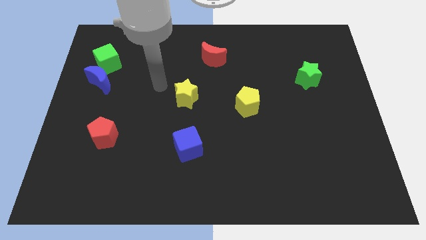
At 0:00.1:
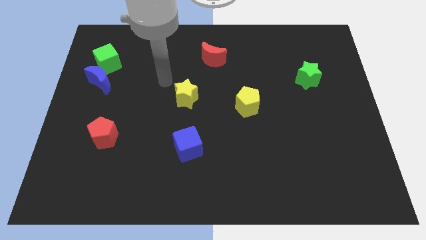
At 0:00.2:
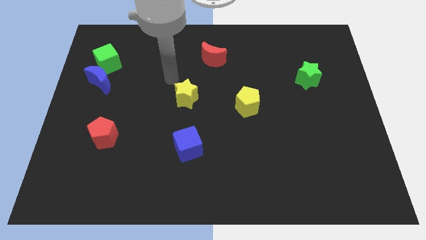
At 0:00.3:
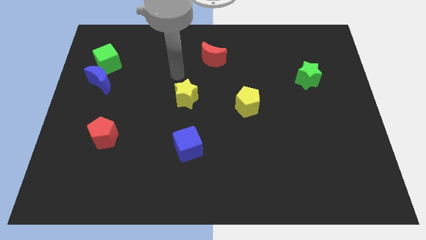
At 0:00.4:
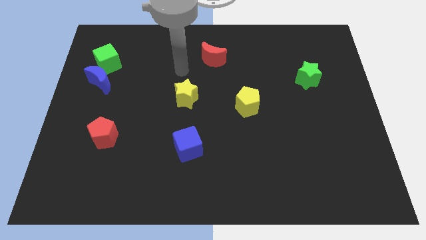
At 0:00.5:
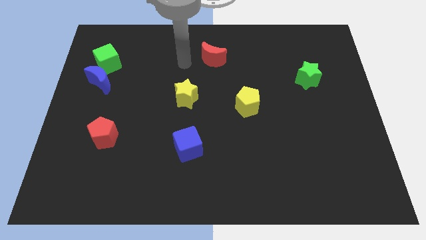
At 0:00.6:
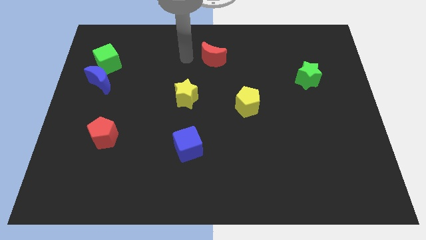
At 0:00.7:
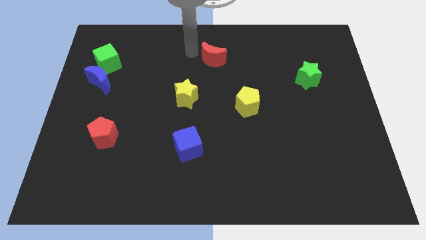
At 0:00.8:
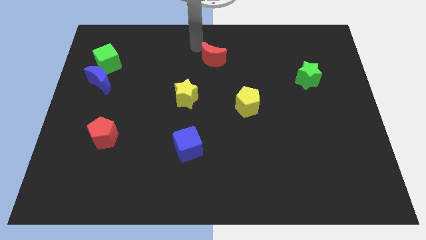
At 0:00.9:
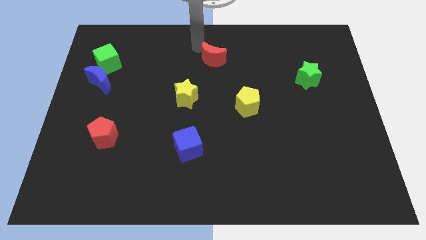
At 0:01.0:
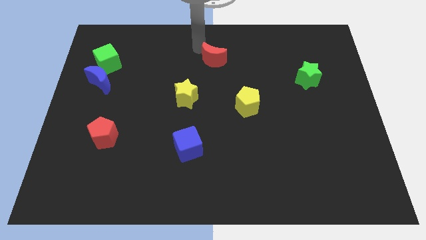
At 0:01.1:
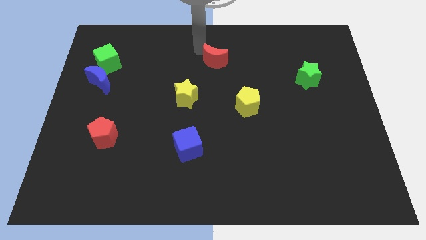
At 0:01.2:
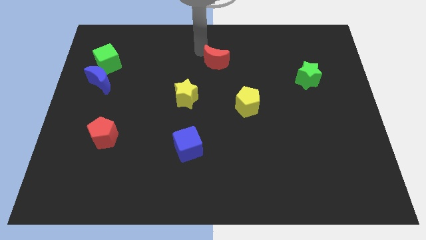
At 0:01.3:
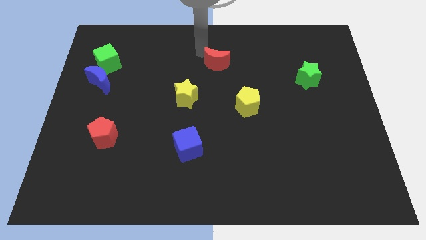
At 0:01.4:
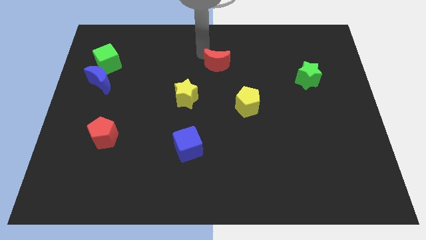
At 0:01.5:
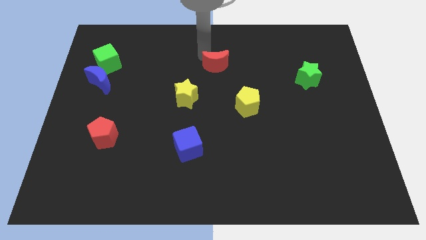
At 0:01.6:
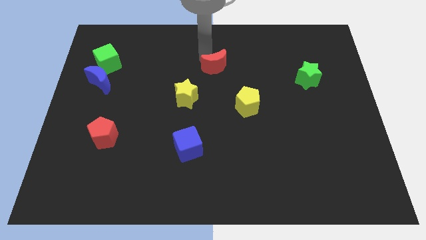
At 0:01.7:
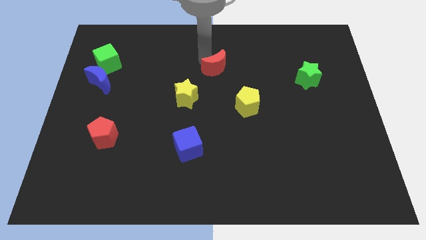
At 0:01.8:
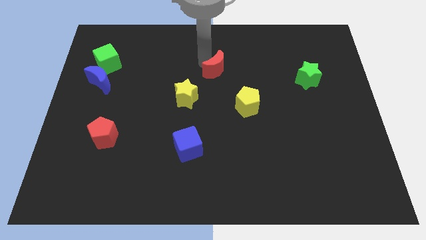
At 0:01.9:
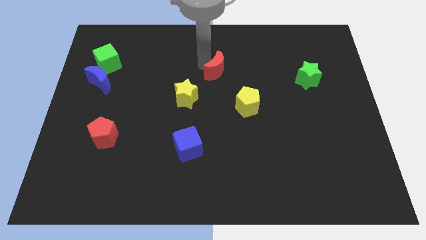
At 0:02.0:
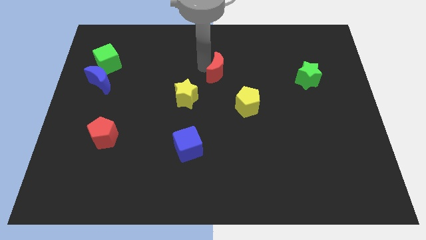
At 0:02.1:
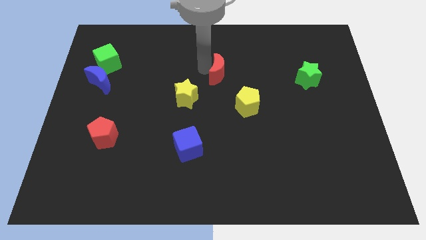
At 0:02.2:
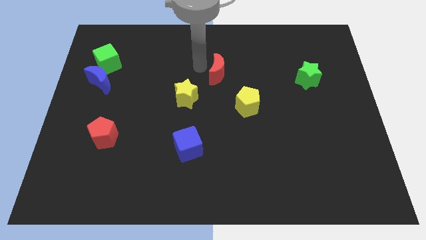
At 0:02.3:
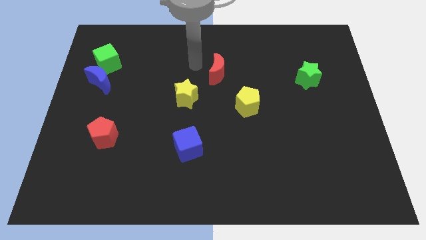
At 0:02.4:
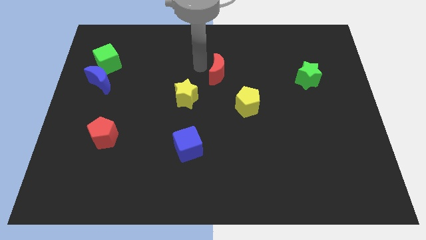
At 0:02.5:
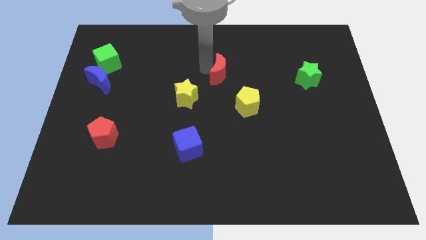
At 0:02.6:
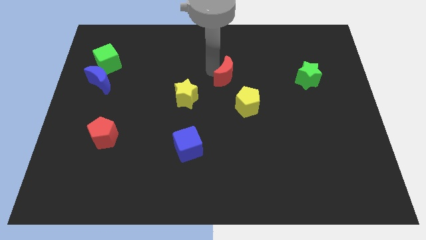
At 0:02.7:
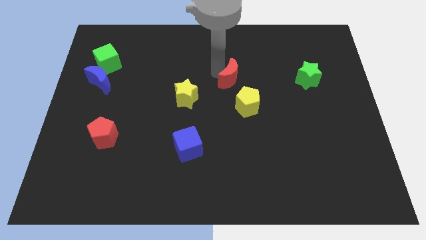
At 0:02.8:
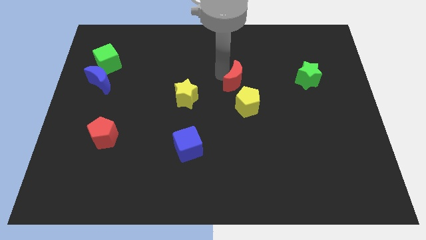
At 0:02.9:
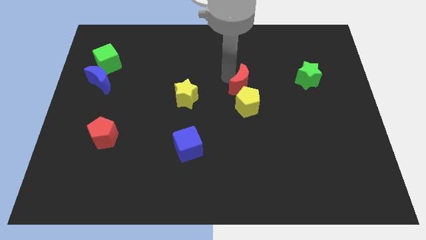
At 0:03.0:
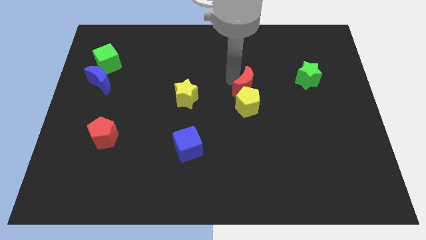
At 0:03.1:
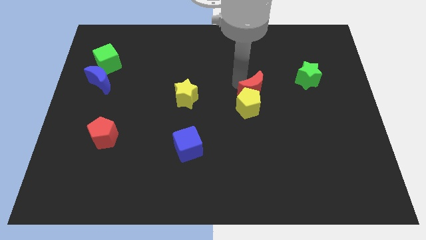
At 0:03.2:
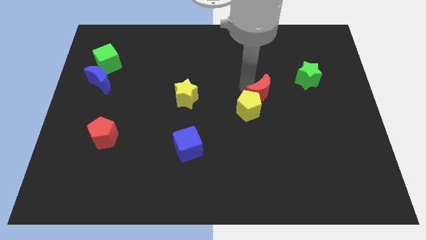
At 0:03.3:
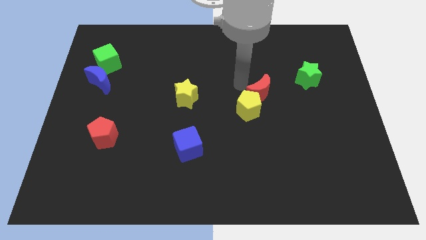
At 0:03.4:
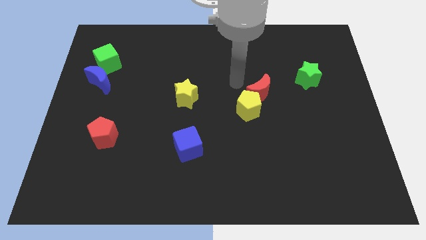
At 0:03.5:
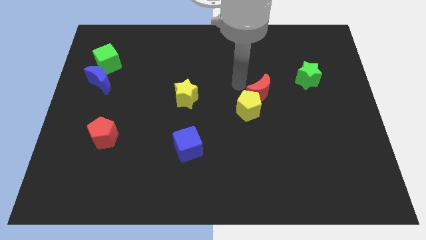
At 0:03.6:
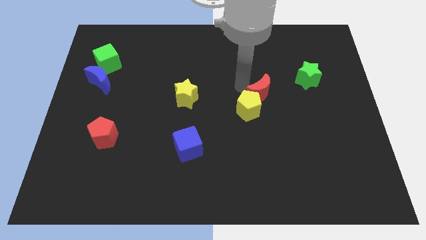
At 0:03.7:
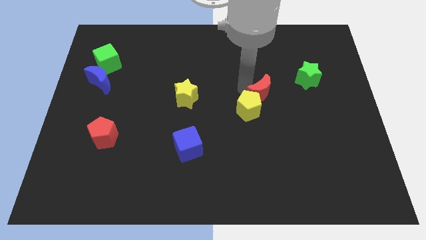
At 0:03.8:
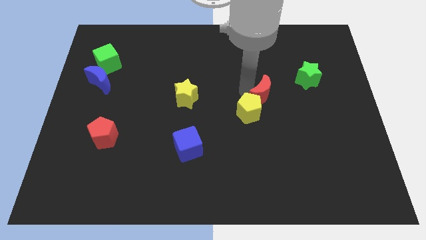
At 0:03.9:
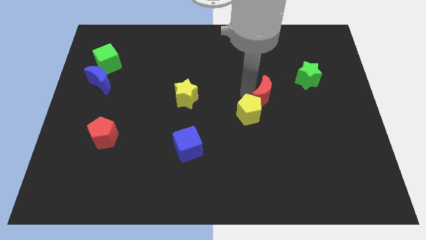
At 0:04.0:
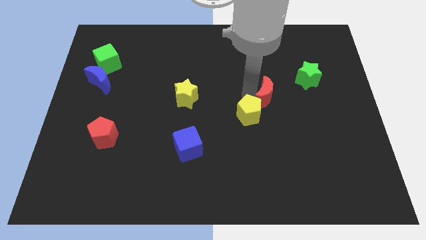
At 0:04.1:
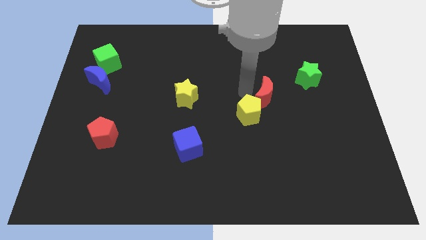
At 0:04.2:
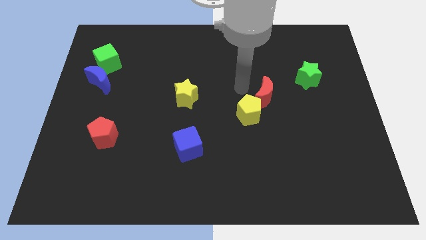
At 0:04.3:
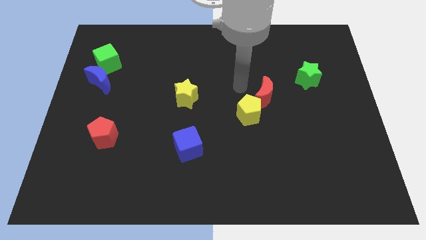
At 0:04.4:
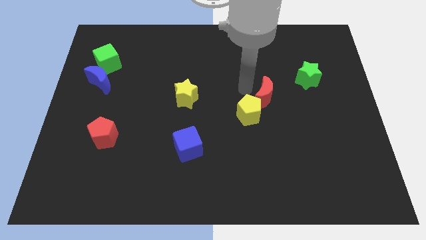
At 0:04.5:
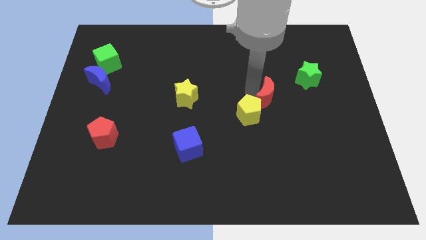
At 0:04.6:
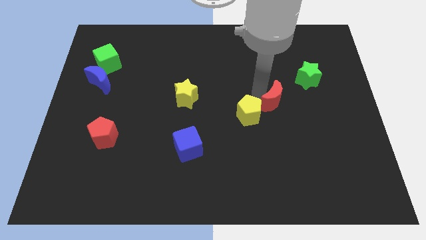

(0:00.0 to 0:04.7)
slide the red moon down and then right

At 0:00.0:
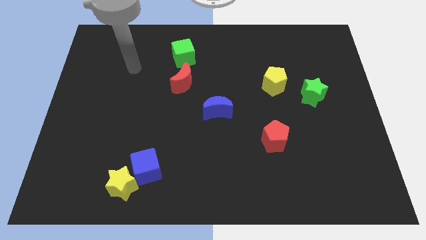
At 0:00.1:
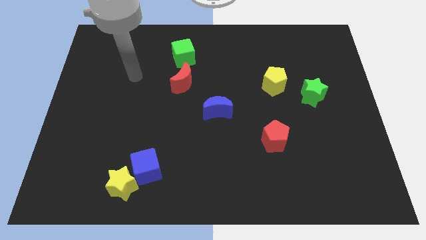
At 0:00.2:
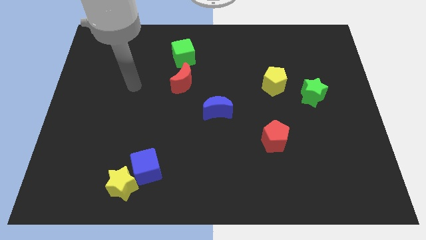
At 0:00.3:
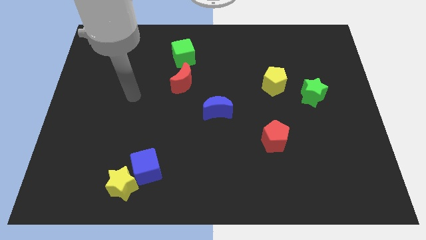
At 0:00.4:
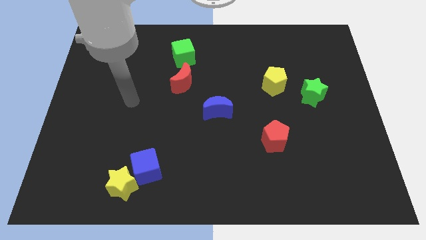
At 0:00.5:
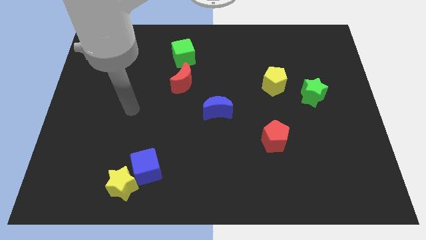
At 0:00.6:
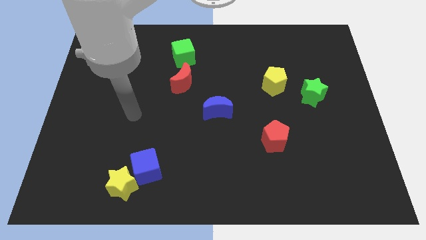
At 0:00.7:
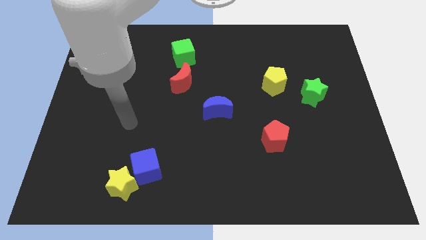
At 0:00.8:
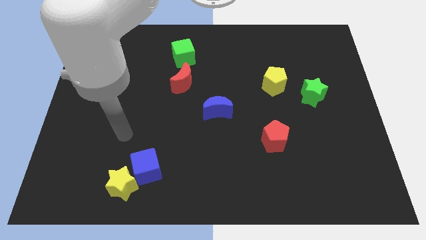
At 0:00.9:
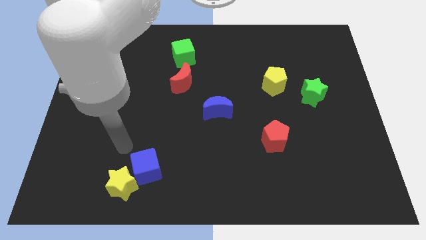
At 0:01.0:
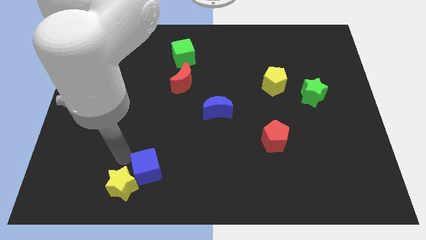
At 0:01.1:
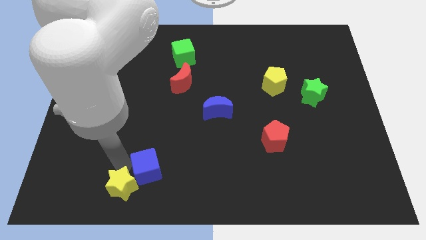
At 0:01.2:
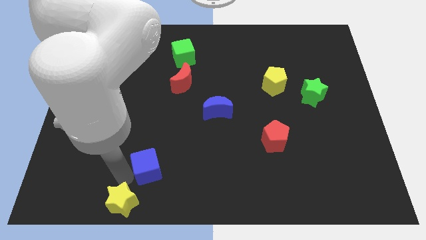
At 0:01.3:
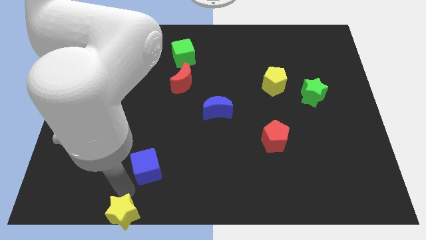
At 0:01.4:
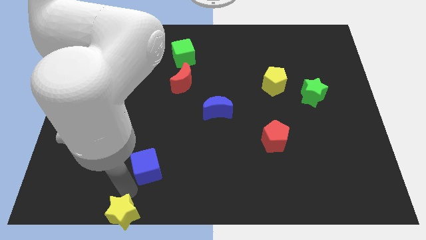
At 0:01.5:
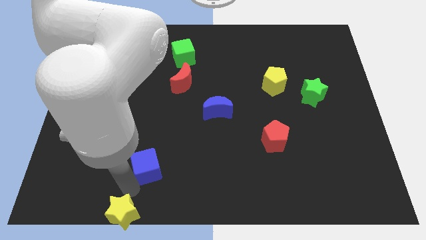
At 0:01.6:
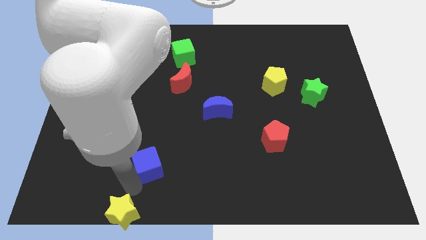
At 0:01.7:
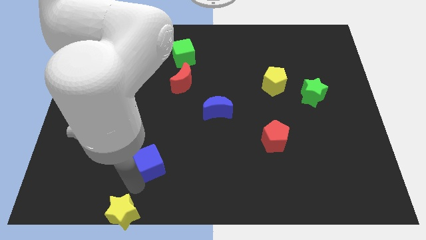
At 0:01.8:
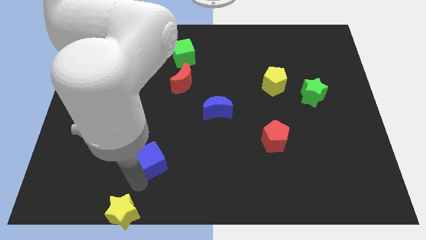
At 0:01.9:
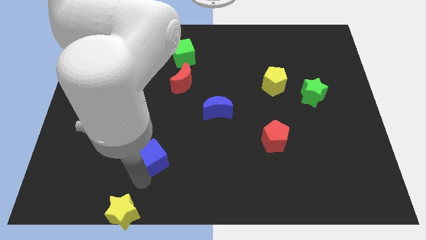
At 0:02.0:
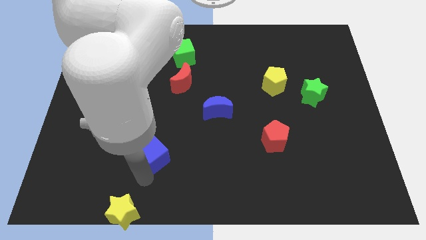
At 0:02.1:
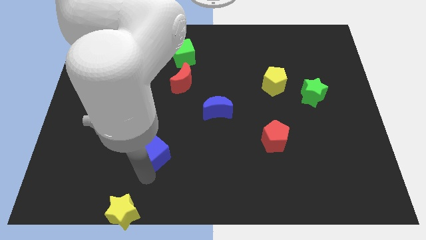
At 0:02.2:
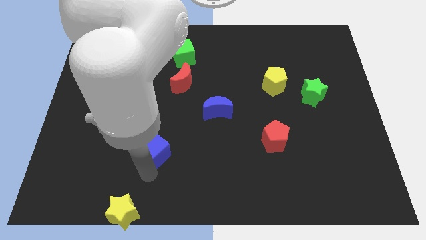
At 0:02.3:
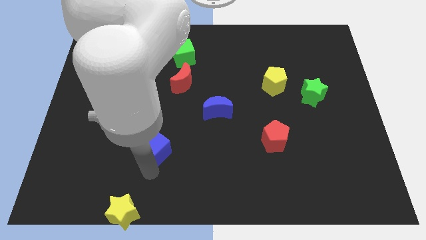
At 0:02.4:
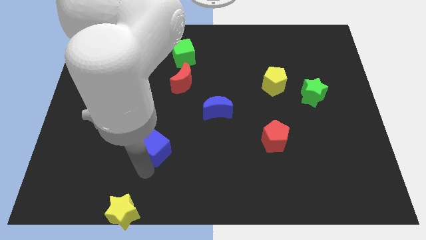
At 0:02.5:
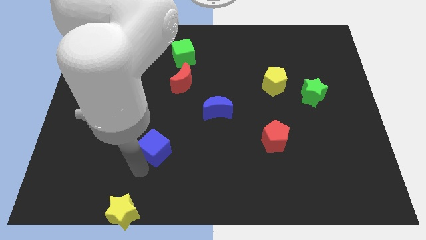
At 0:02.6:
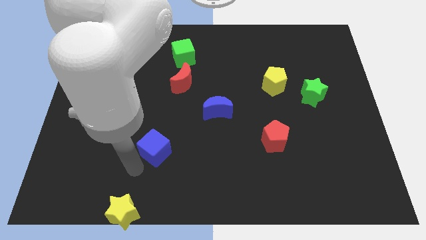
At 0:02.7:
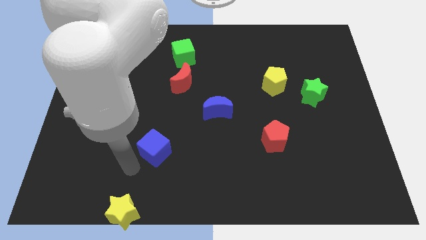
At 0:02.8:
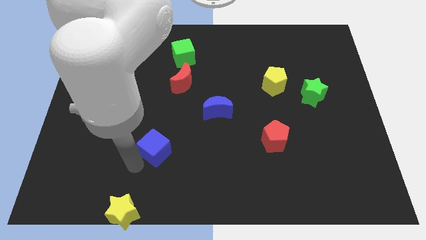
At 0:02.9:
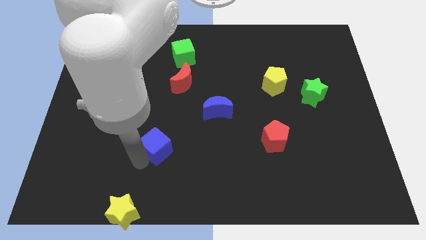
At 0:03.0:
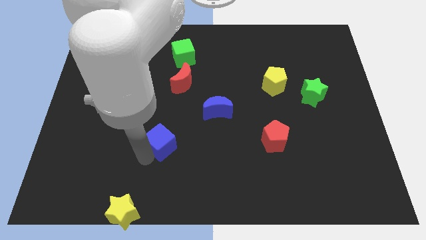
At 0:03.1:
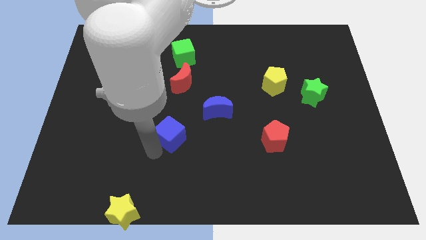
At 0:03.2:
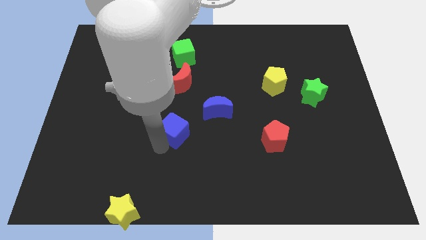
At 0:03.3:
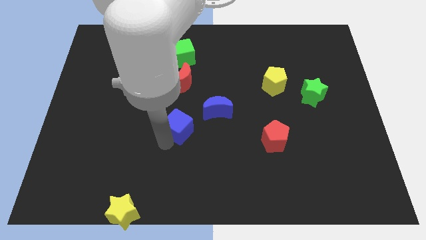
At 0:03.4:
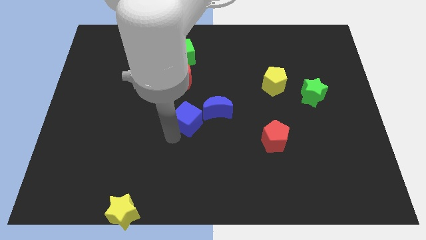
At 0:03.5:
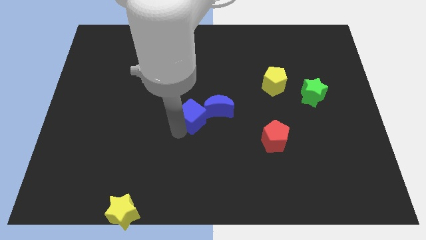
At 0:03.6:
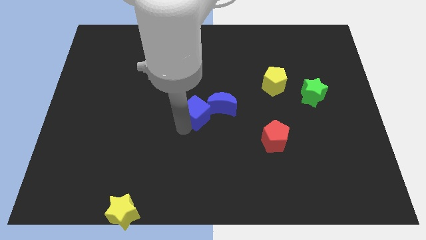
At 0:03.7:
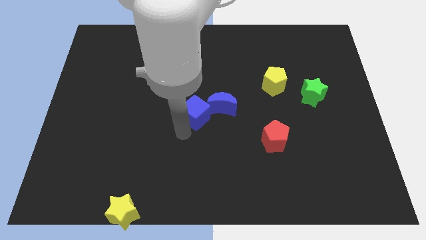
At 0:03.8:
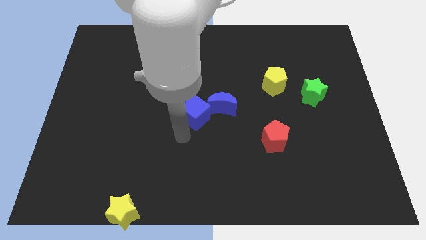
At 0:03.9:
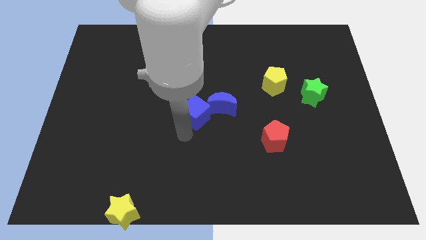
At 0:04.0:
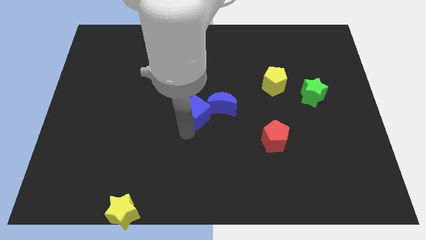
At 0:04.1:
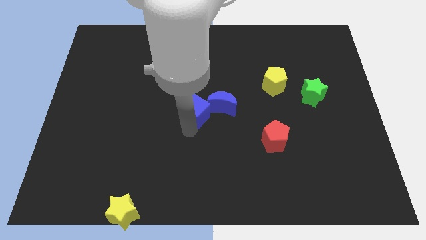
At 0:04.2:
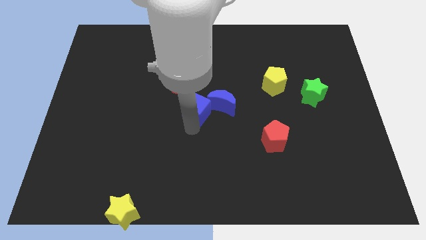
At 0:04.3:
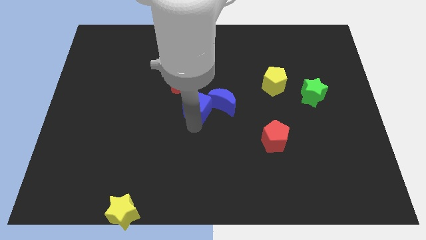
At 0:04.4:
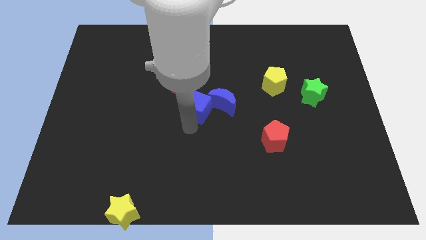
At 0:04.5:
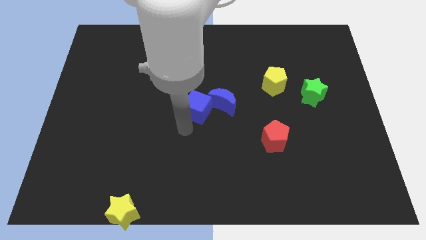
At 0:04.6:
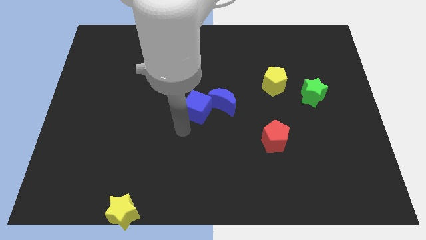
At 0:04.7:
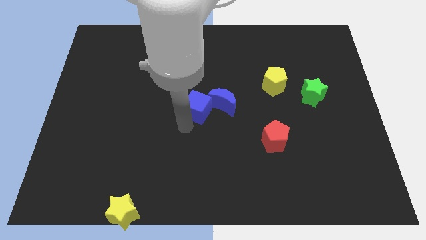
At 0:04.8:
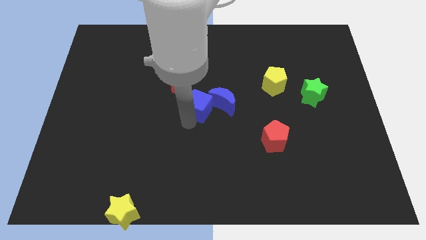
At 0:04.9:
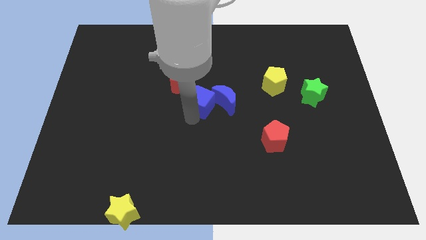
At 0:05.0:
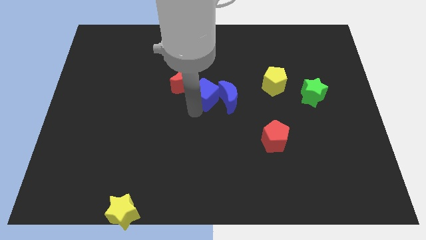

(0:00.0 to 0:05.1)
slide the blue cube up and right
